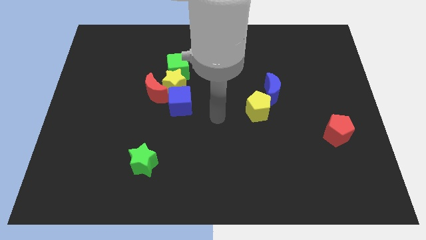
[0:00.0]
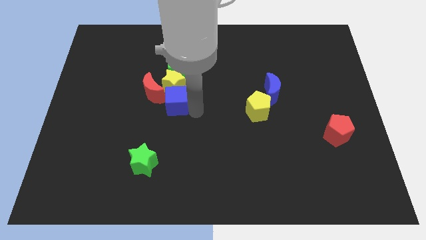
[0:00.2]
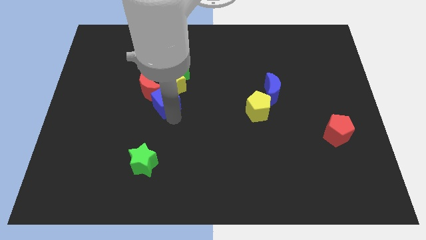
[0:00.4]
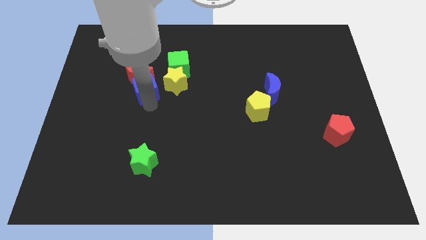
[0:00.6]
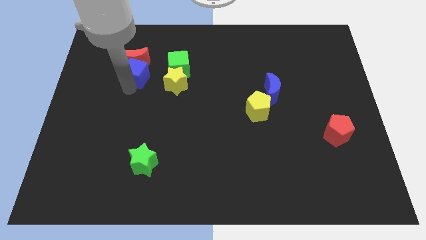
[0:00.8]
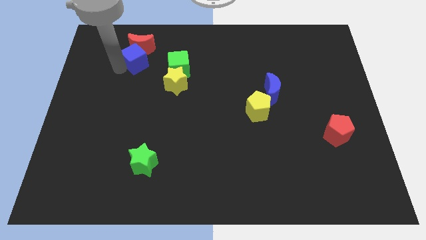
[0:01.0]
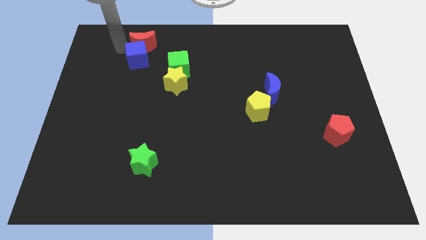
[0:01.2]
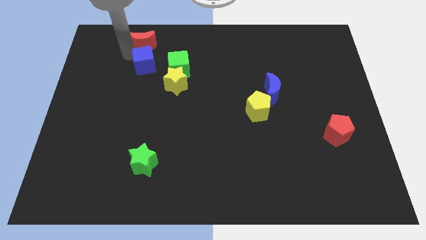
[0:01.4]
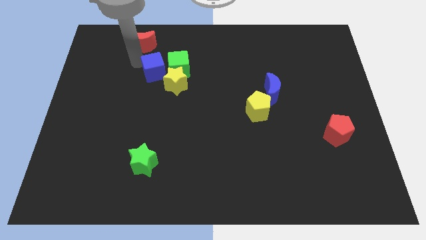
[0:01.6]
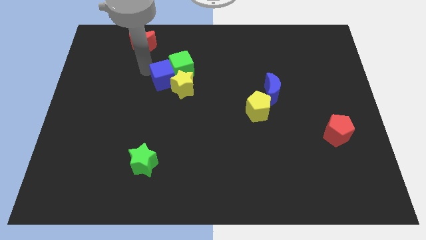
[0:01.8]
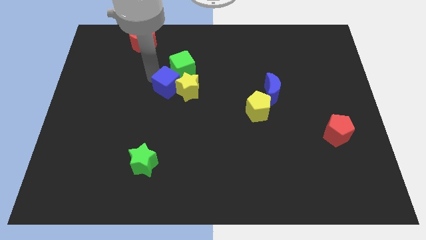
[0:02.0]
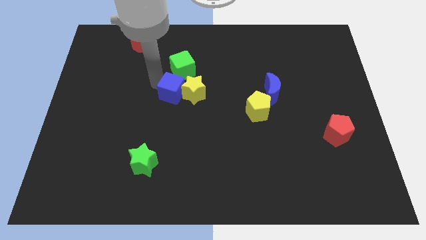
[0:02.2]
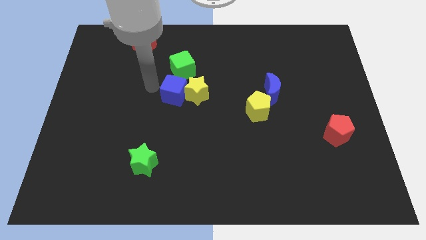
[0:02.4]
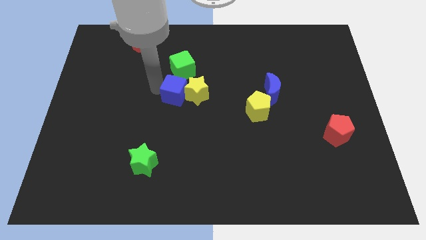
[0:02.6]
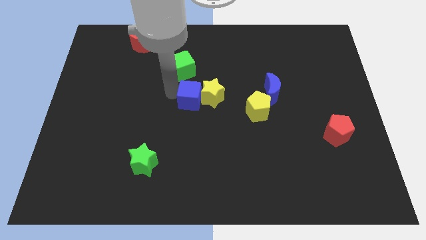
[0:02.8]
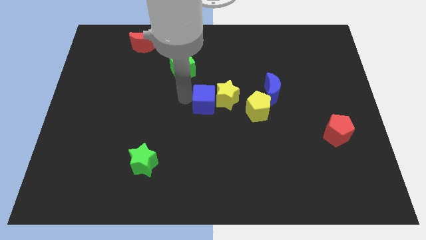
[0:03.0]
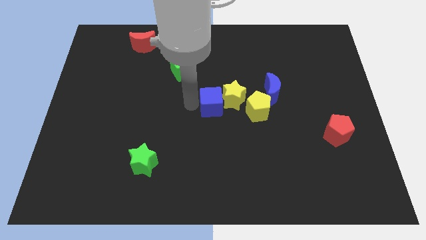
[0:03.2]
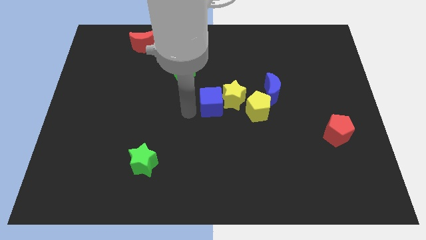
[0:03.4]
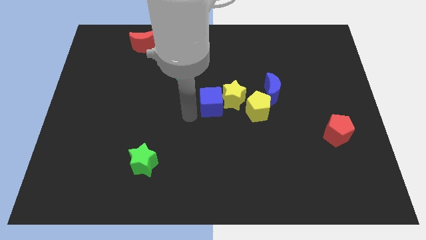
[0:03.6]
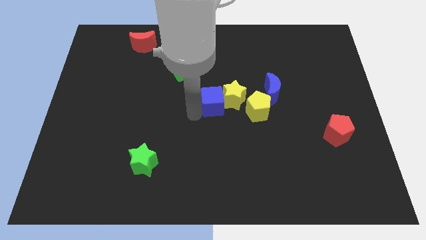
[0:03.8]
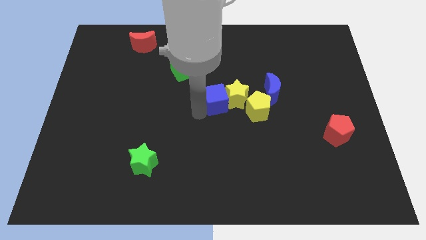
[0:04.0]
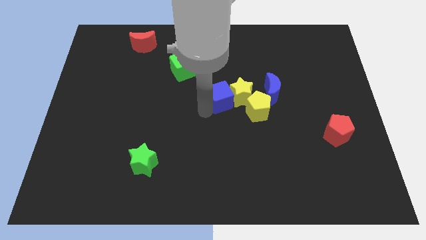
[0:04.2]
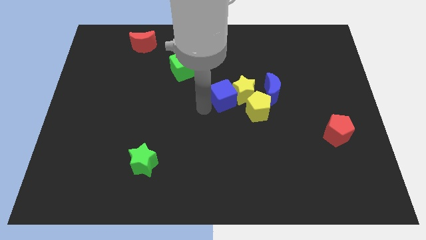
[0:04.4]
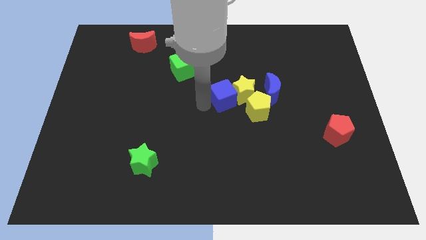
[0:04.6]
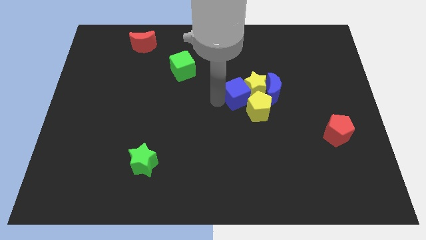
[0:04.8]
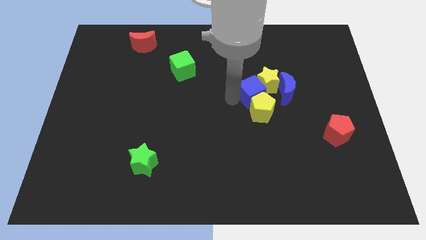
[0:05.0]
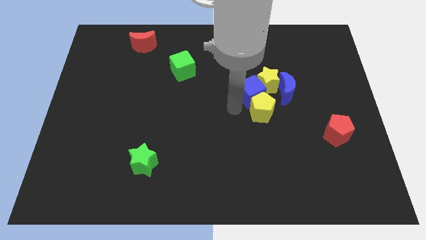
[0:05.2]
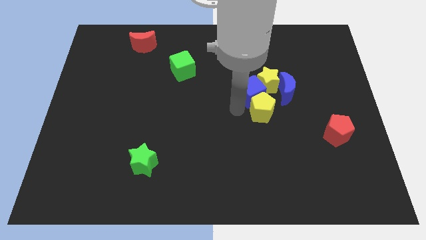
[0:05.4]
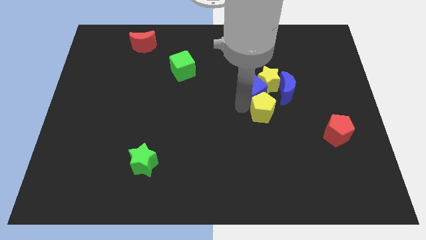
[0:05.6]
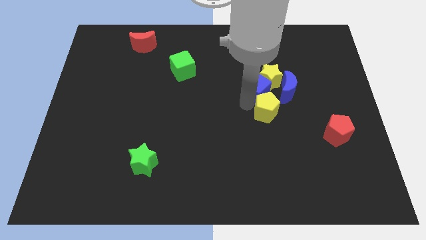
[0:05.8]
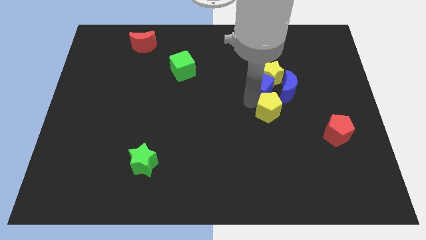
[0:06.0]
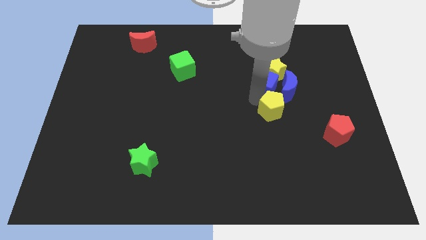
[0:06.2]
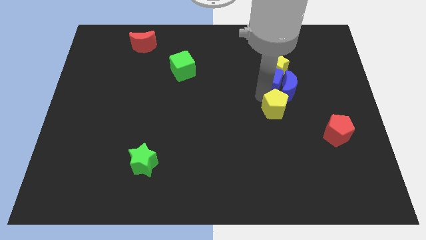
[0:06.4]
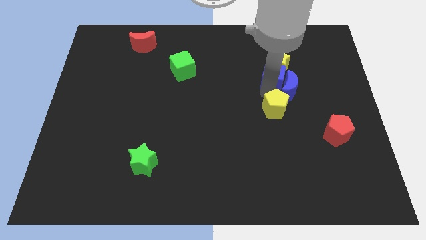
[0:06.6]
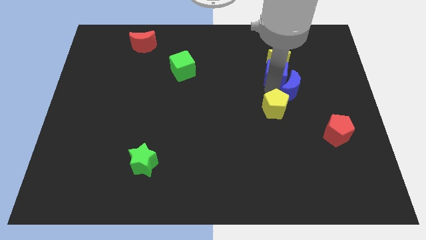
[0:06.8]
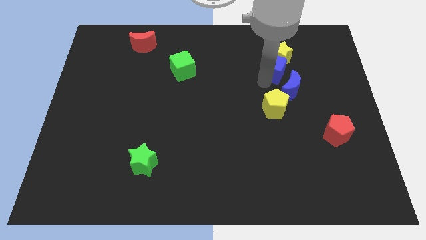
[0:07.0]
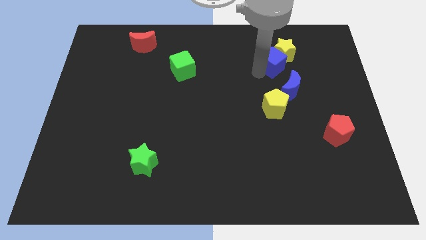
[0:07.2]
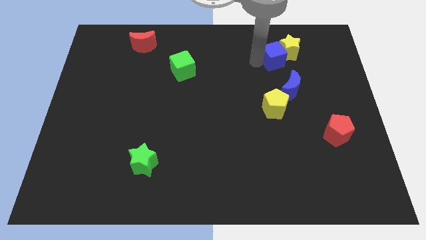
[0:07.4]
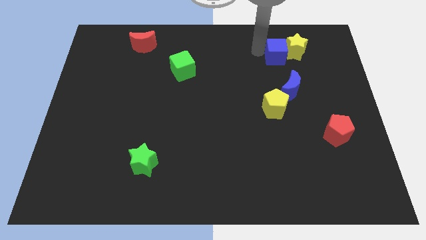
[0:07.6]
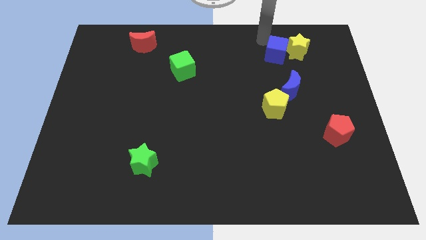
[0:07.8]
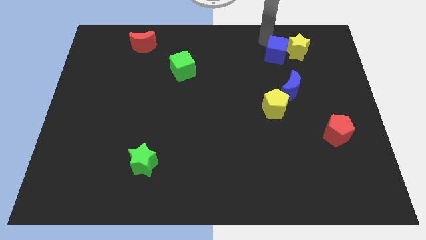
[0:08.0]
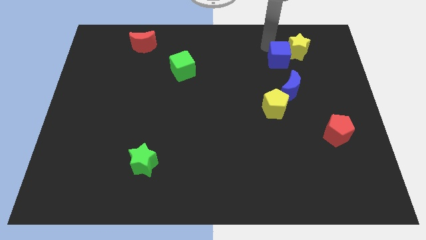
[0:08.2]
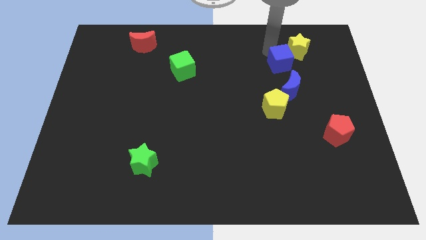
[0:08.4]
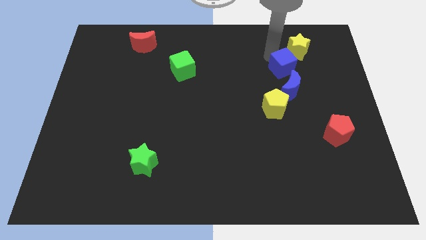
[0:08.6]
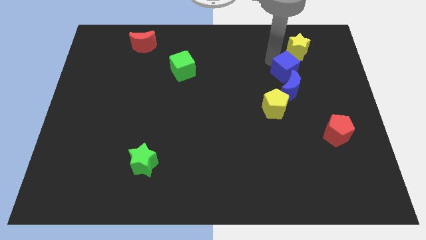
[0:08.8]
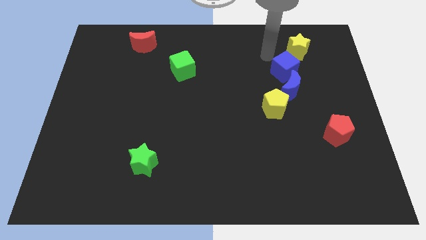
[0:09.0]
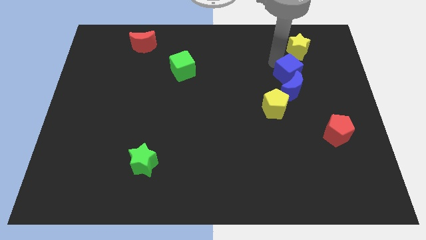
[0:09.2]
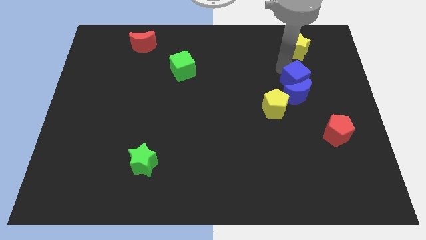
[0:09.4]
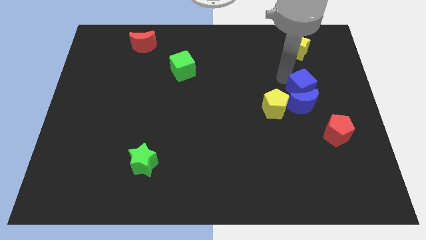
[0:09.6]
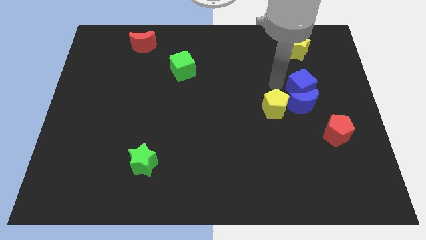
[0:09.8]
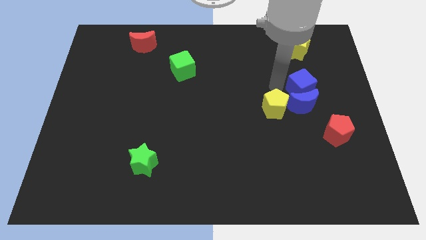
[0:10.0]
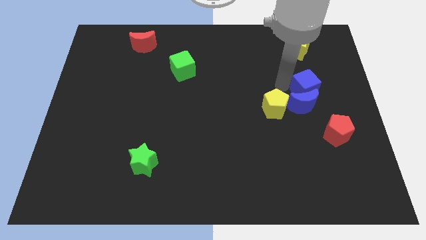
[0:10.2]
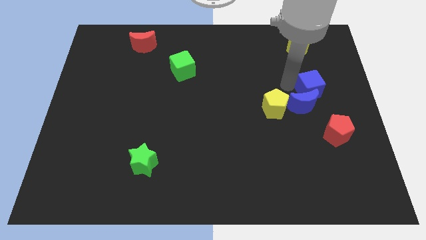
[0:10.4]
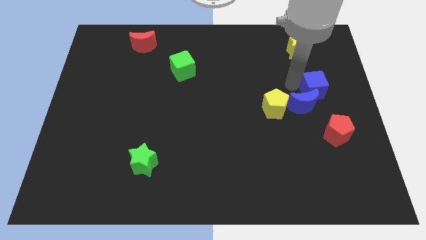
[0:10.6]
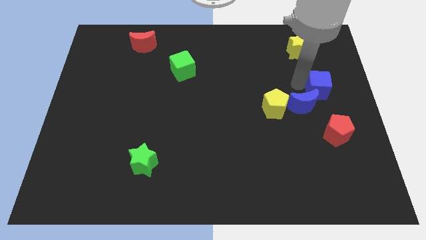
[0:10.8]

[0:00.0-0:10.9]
push the blue cube to the right side

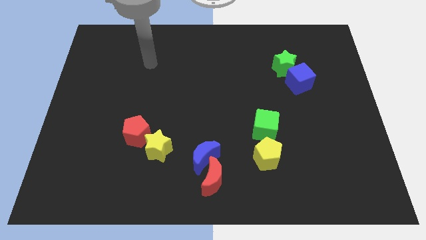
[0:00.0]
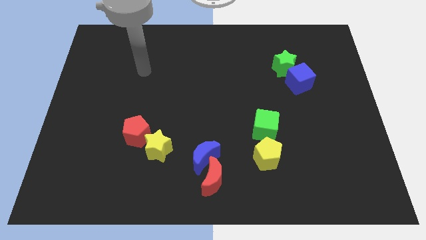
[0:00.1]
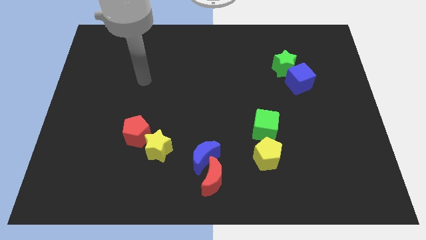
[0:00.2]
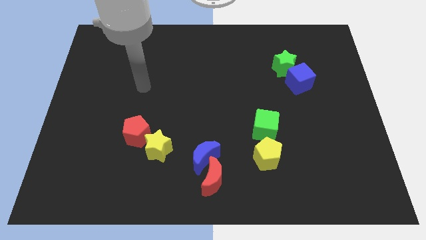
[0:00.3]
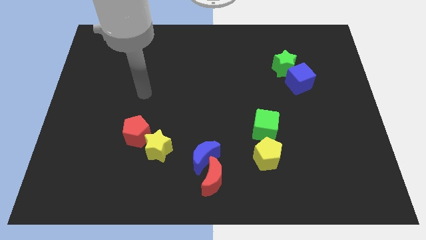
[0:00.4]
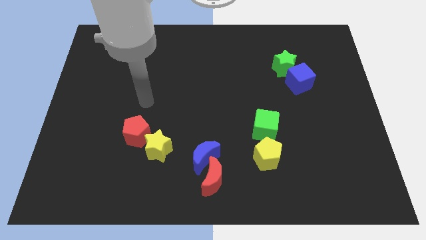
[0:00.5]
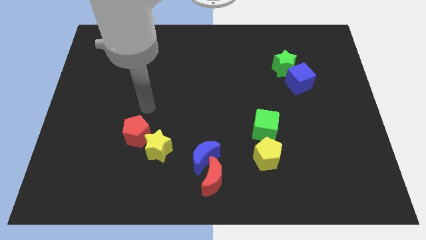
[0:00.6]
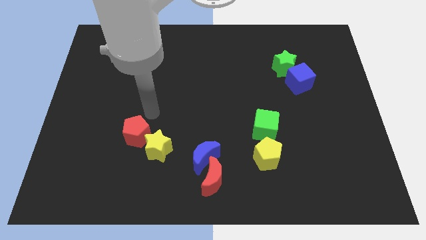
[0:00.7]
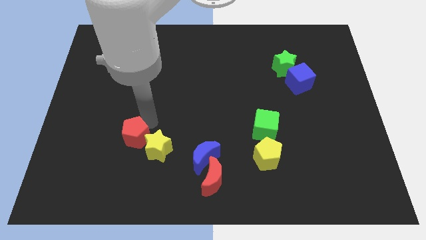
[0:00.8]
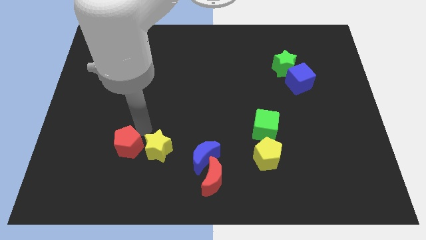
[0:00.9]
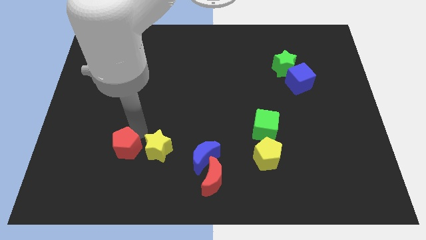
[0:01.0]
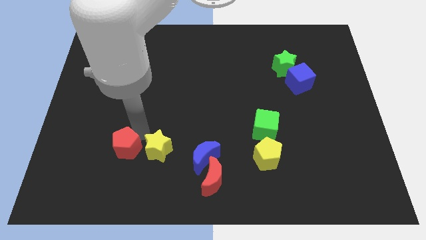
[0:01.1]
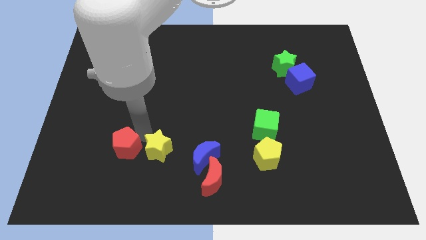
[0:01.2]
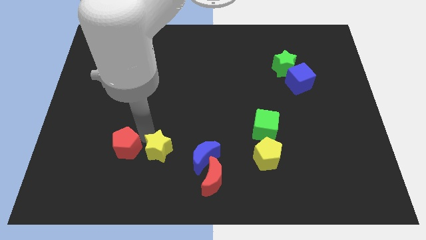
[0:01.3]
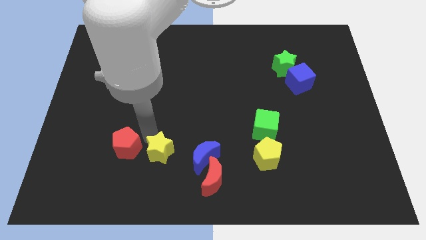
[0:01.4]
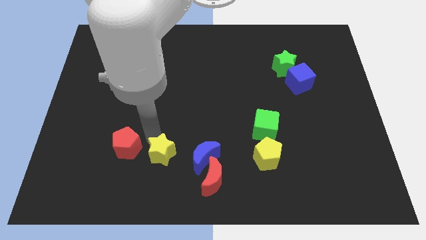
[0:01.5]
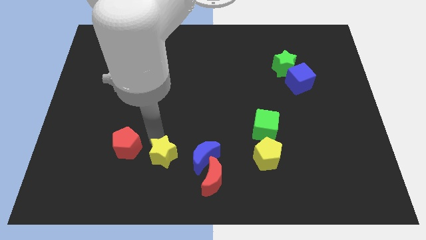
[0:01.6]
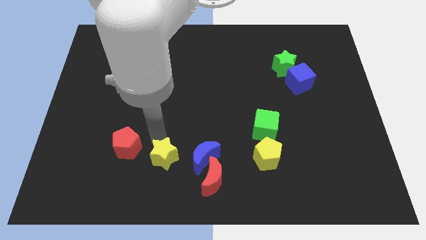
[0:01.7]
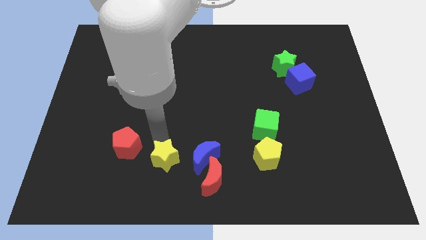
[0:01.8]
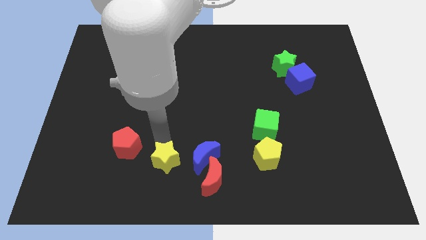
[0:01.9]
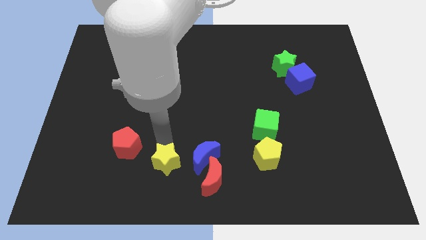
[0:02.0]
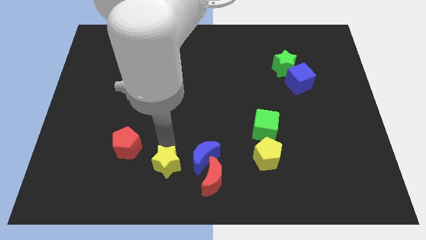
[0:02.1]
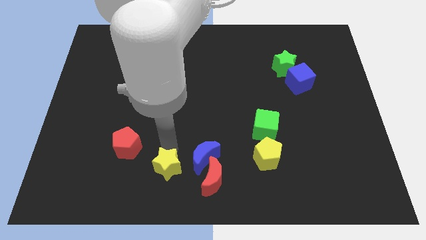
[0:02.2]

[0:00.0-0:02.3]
move the yellow star to the bottom
